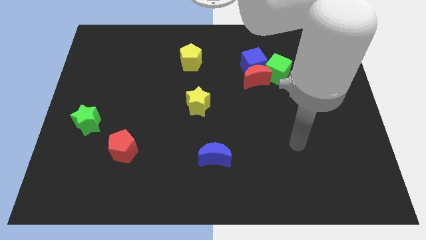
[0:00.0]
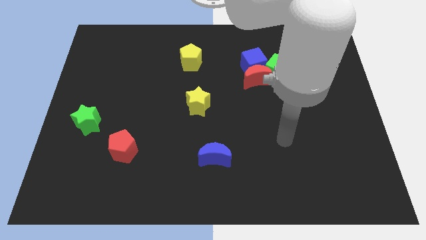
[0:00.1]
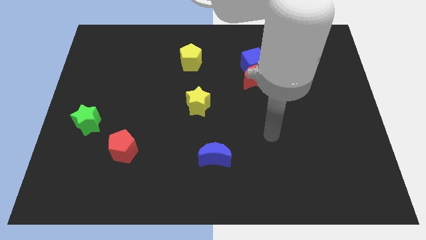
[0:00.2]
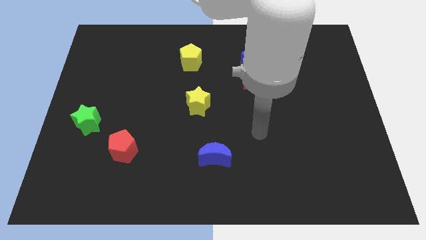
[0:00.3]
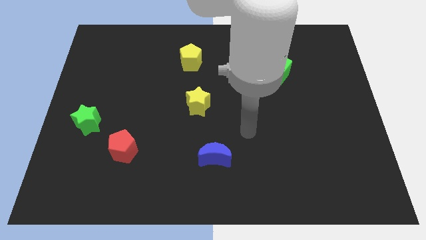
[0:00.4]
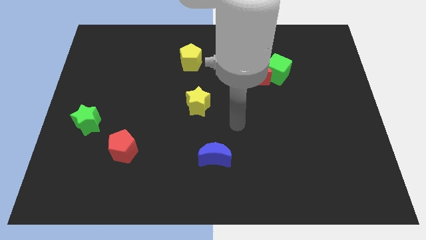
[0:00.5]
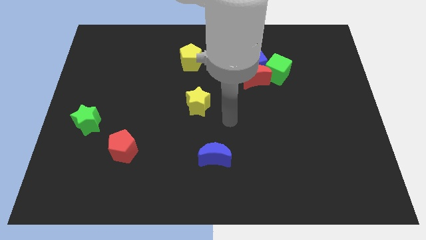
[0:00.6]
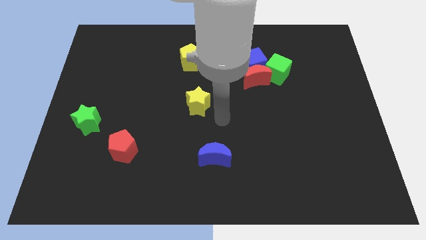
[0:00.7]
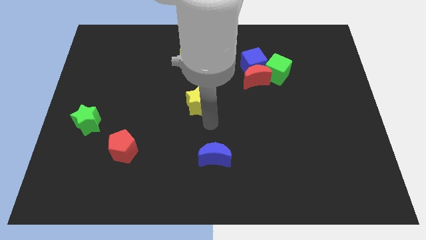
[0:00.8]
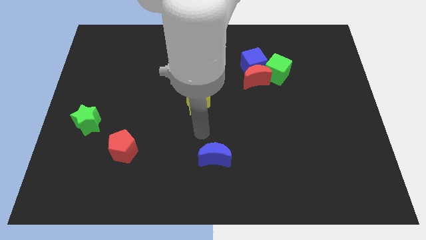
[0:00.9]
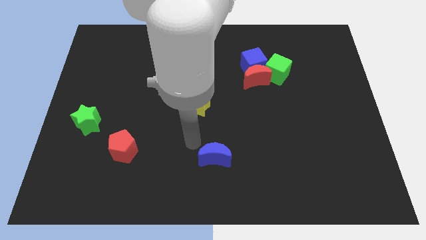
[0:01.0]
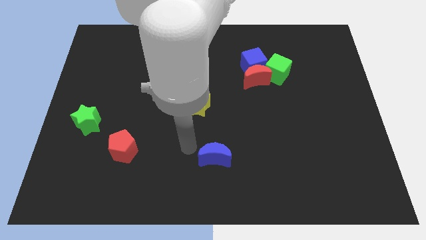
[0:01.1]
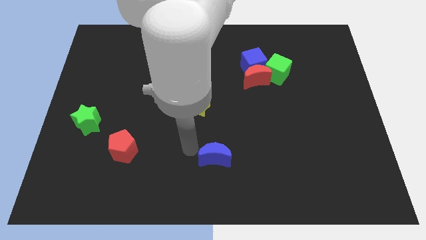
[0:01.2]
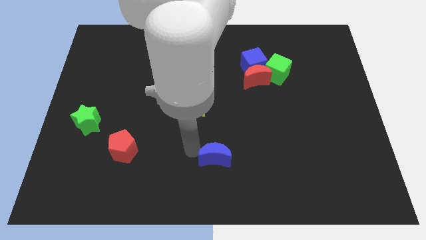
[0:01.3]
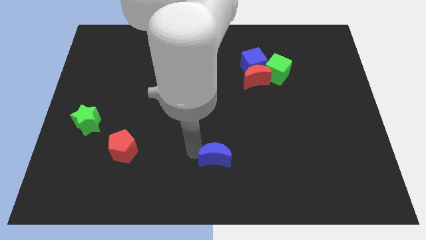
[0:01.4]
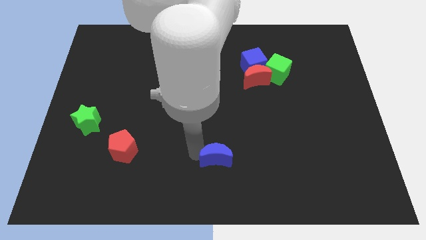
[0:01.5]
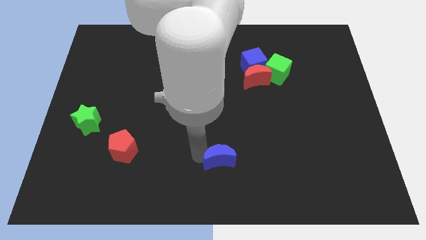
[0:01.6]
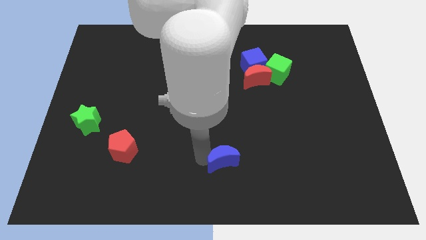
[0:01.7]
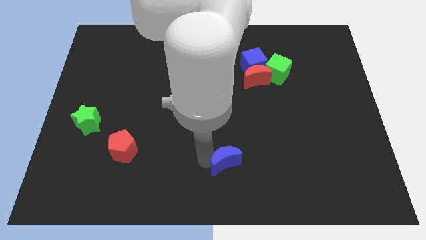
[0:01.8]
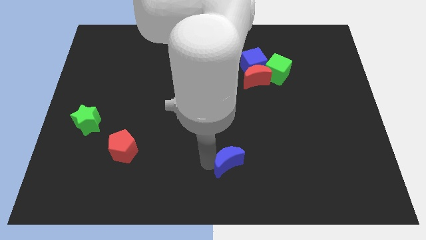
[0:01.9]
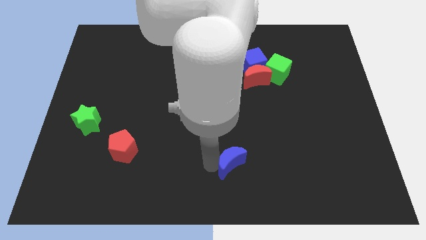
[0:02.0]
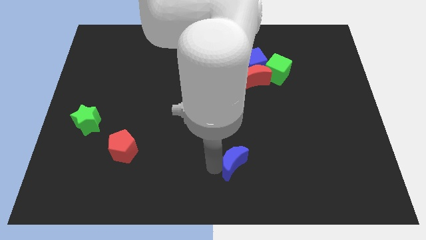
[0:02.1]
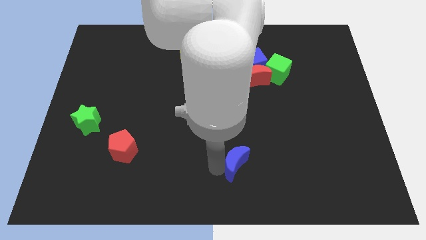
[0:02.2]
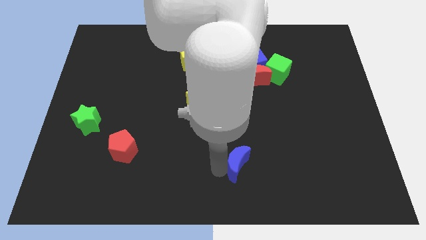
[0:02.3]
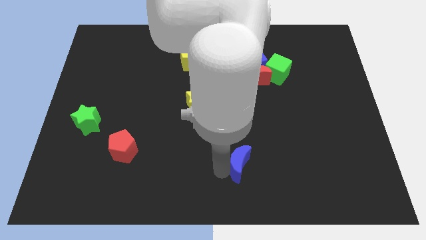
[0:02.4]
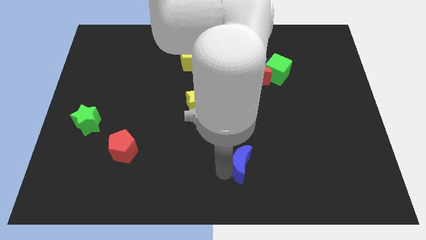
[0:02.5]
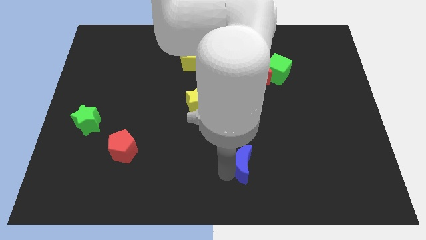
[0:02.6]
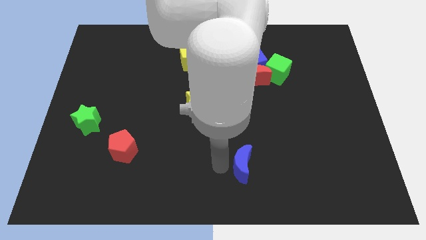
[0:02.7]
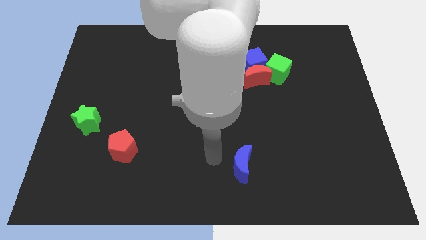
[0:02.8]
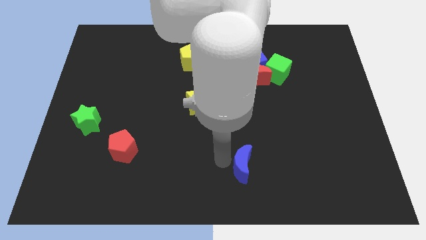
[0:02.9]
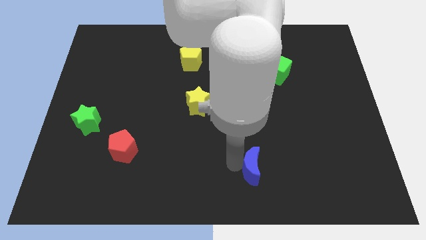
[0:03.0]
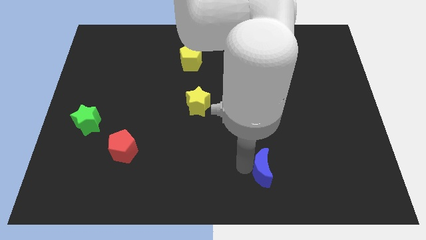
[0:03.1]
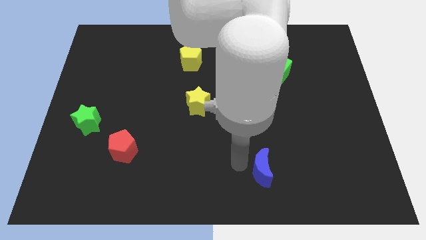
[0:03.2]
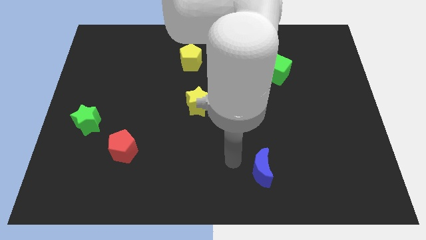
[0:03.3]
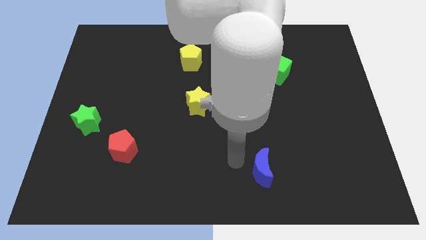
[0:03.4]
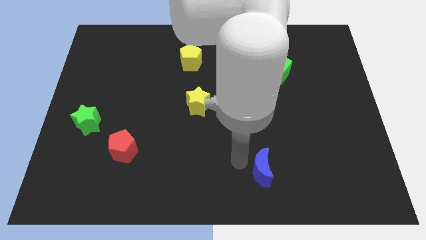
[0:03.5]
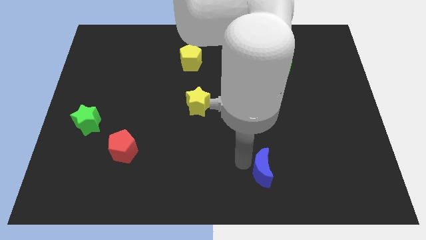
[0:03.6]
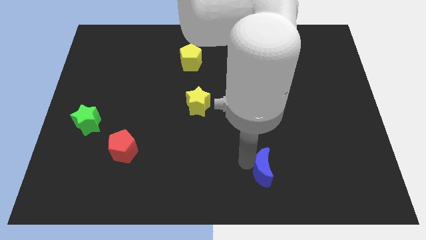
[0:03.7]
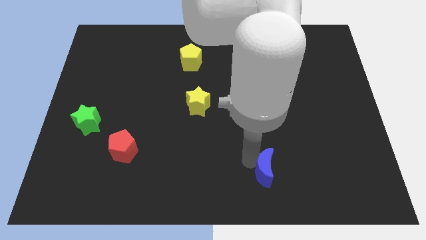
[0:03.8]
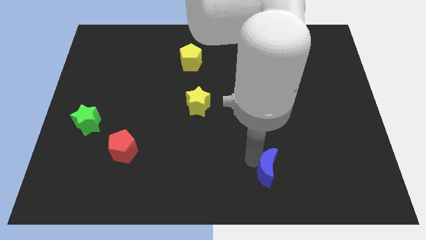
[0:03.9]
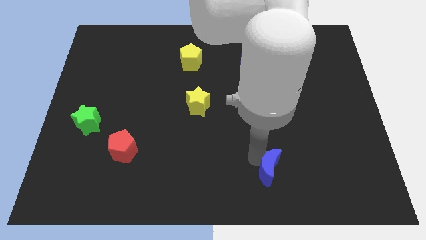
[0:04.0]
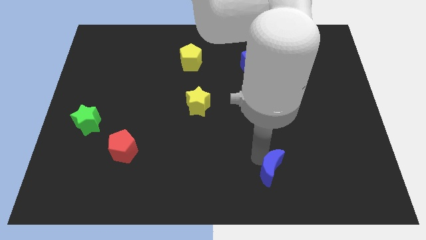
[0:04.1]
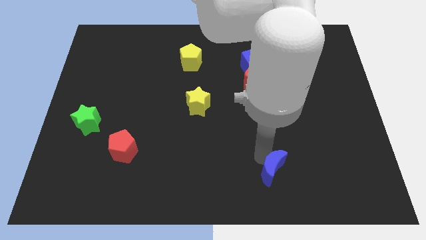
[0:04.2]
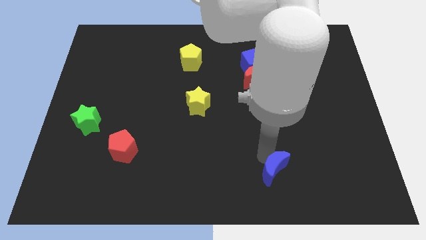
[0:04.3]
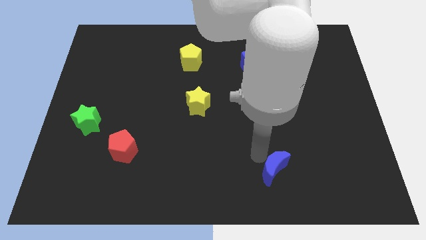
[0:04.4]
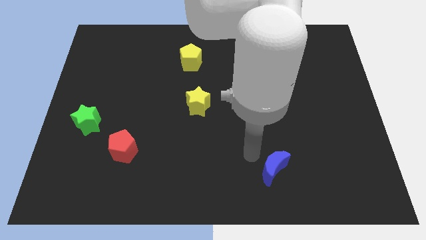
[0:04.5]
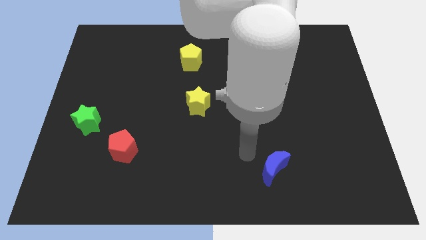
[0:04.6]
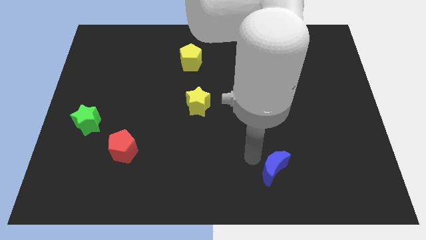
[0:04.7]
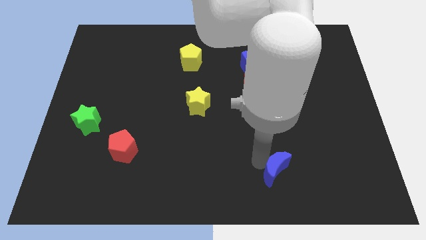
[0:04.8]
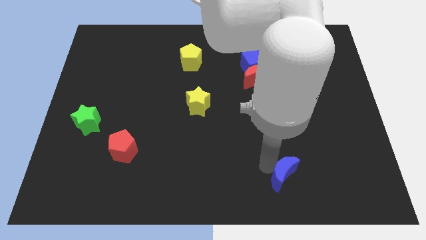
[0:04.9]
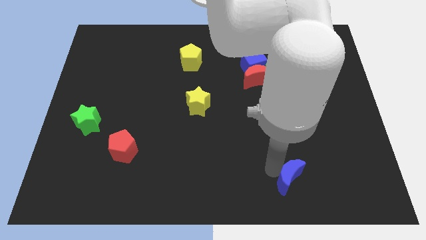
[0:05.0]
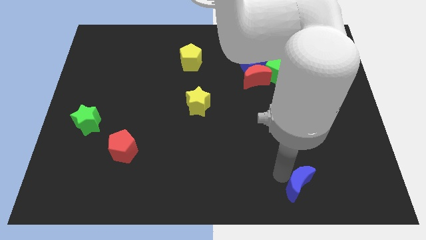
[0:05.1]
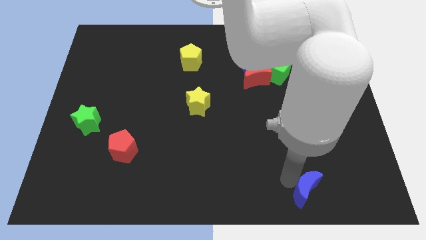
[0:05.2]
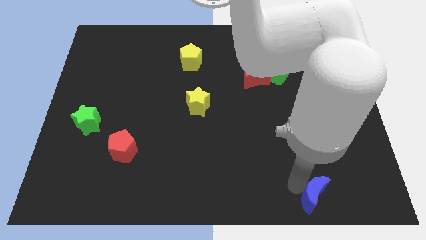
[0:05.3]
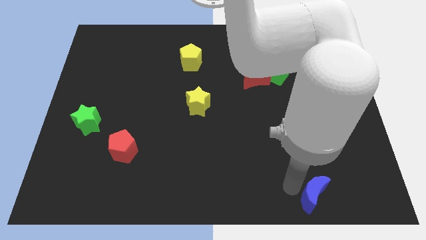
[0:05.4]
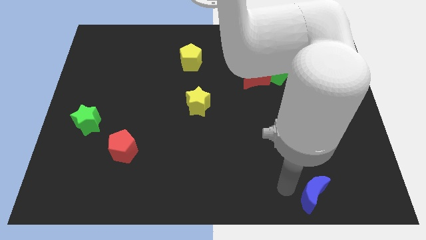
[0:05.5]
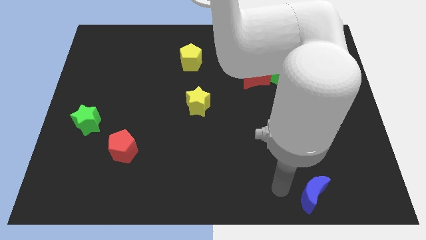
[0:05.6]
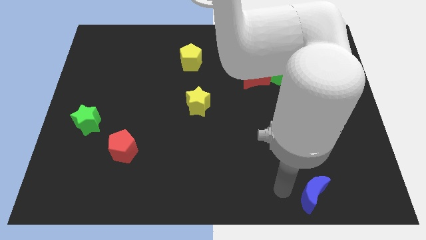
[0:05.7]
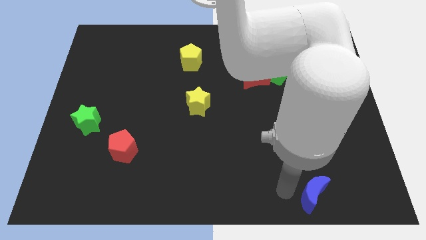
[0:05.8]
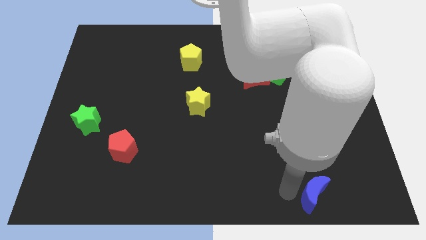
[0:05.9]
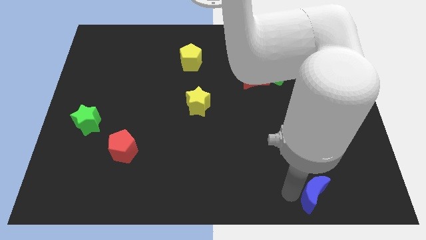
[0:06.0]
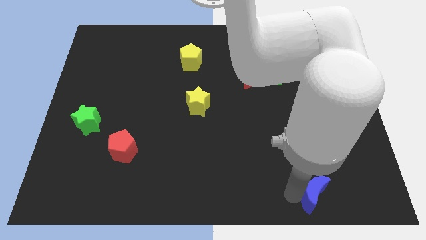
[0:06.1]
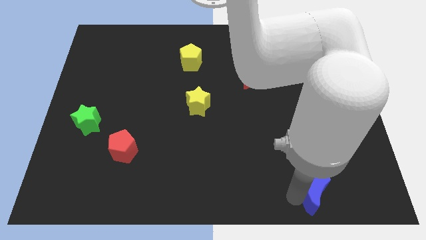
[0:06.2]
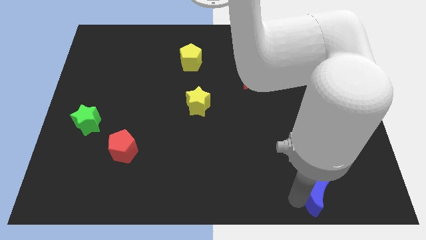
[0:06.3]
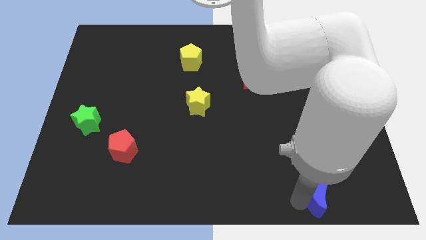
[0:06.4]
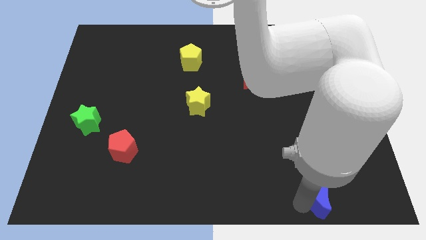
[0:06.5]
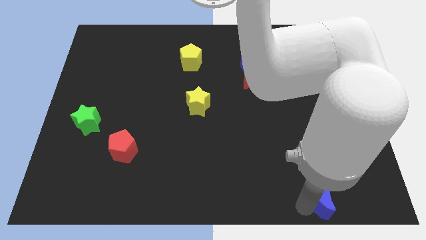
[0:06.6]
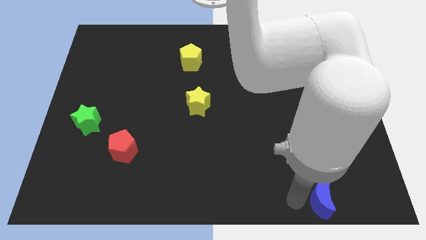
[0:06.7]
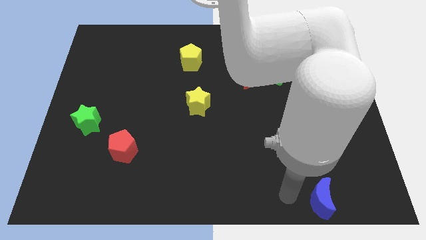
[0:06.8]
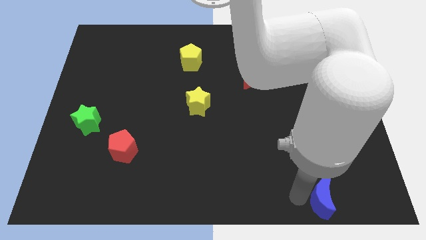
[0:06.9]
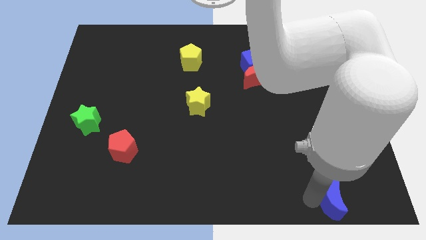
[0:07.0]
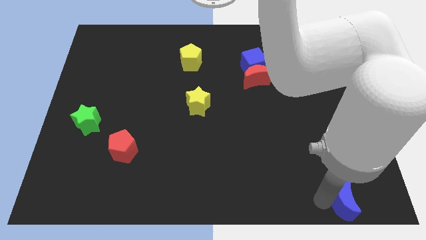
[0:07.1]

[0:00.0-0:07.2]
move the blue moon to the bottom right
